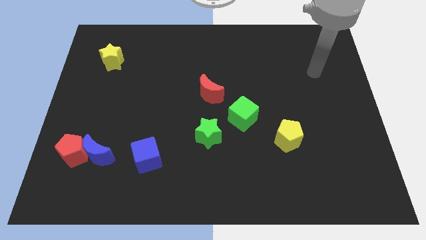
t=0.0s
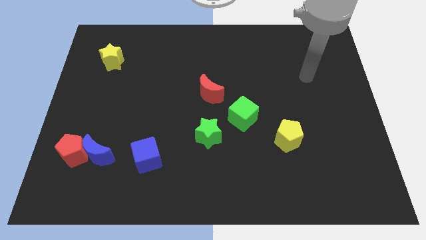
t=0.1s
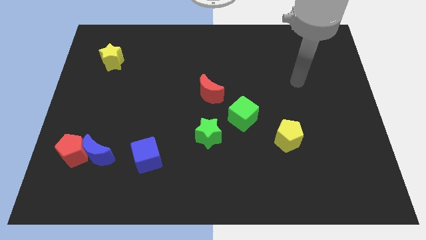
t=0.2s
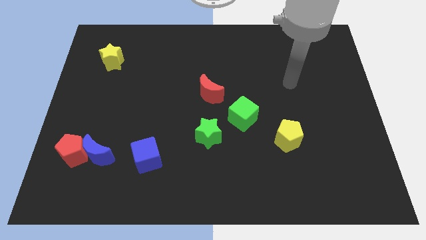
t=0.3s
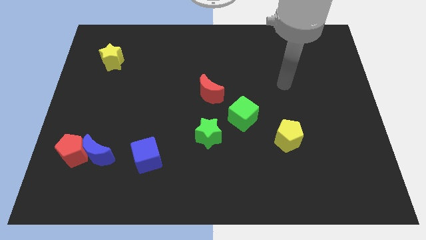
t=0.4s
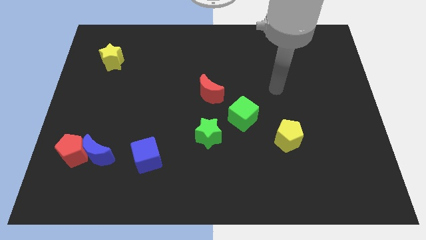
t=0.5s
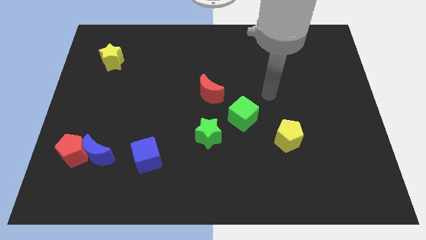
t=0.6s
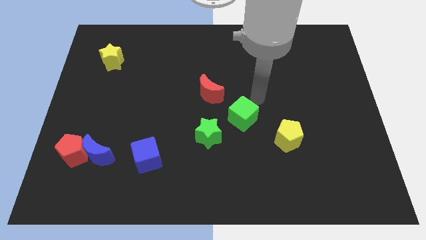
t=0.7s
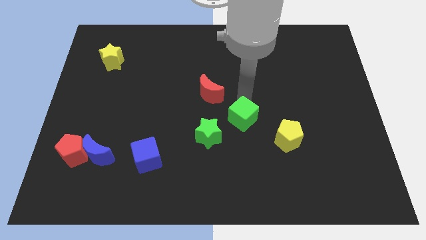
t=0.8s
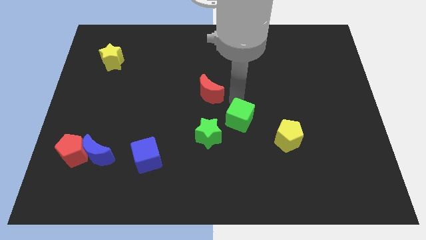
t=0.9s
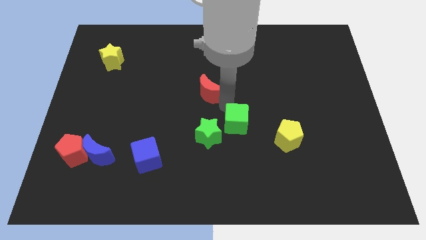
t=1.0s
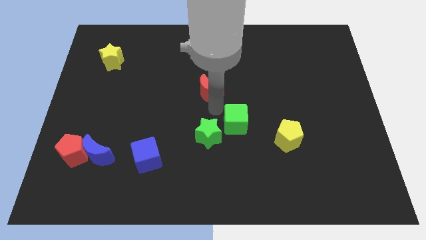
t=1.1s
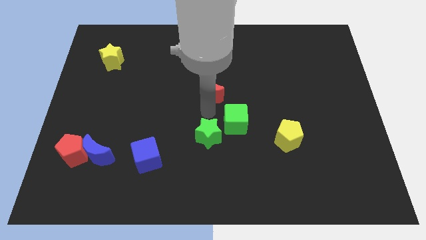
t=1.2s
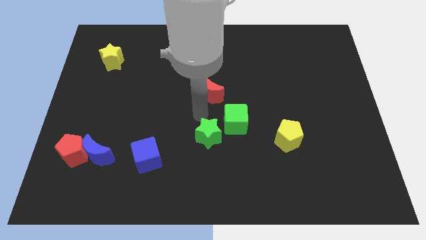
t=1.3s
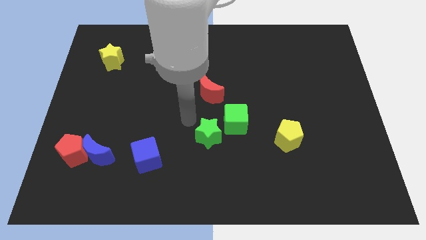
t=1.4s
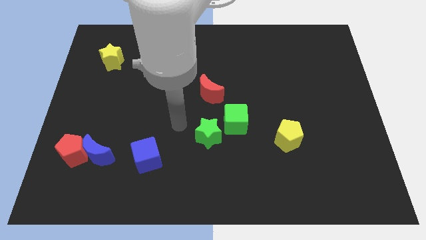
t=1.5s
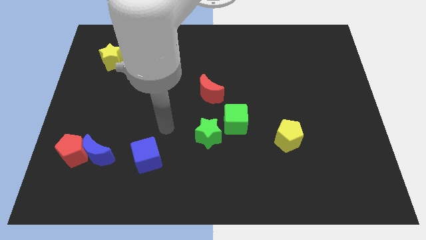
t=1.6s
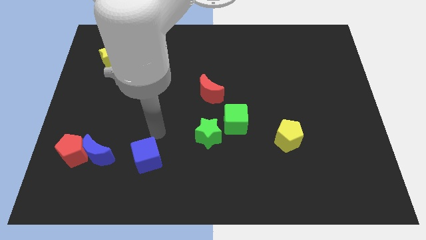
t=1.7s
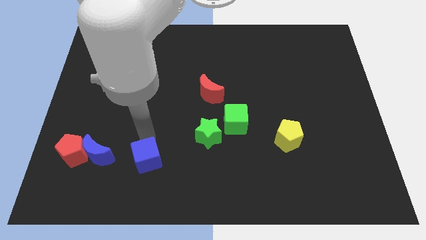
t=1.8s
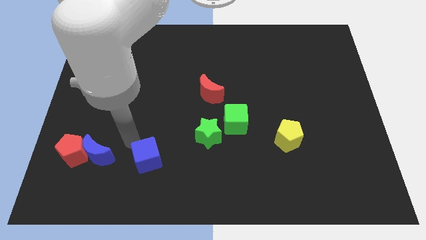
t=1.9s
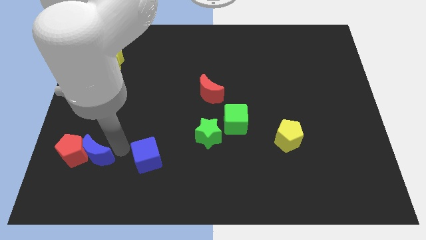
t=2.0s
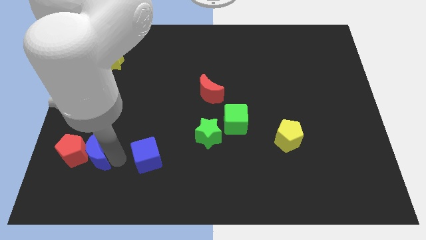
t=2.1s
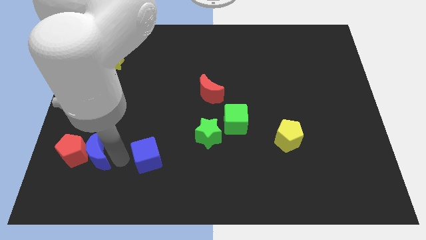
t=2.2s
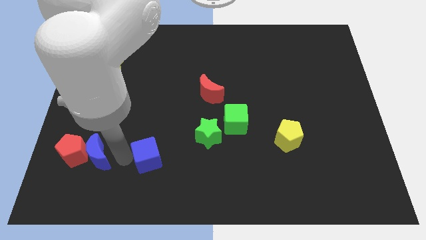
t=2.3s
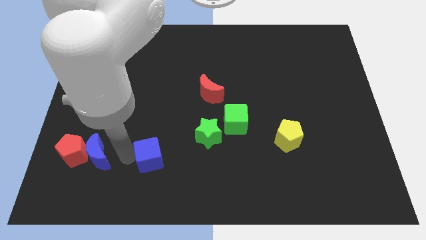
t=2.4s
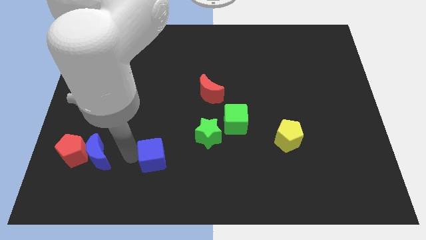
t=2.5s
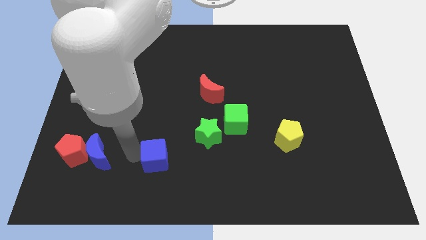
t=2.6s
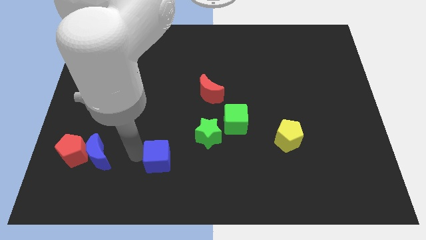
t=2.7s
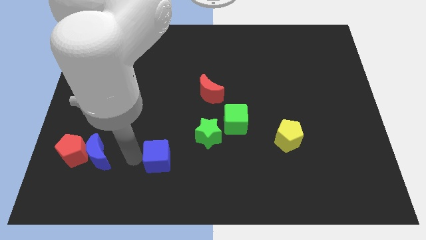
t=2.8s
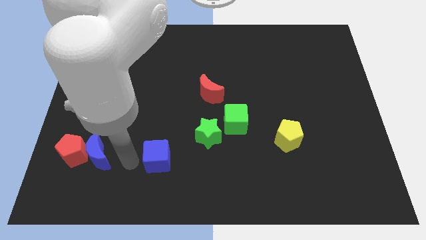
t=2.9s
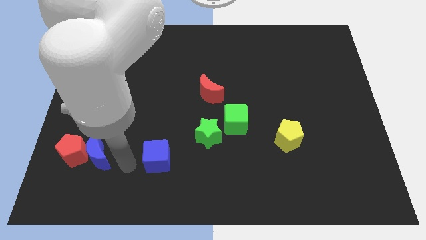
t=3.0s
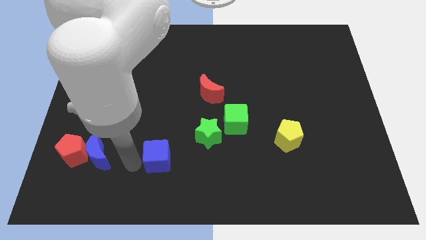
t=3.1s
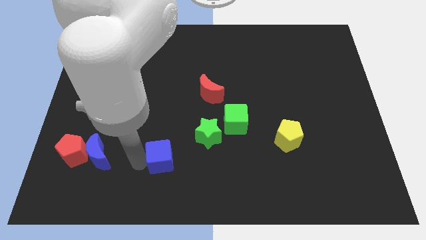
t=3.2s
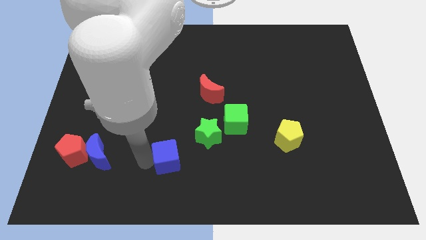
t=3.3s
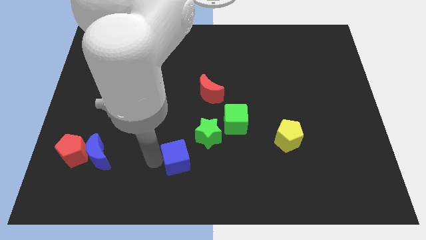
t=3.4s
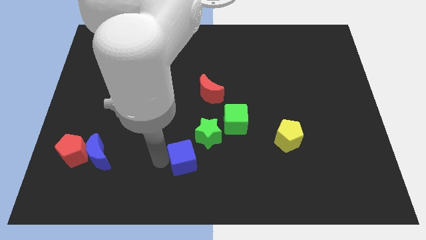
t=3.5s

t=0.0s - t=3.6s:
push the blue cube a little right

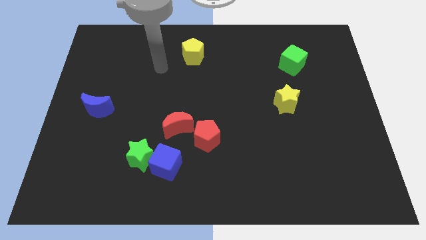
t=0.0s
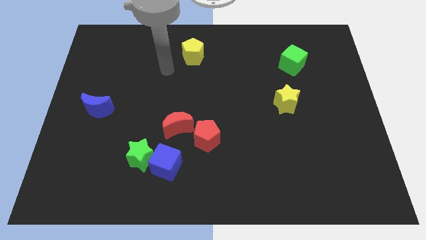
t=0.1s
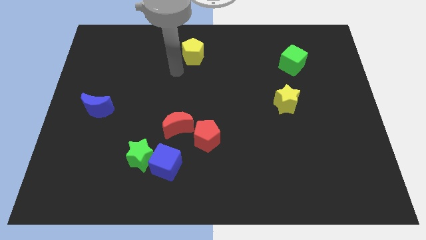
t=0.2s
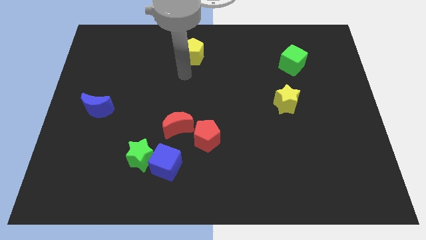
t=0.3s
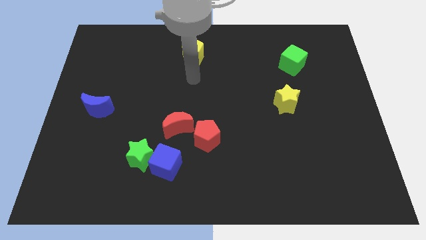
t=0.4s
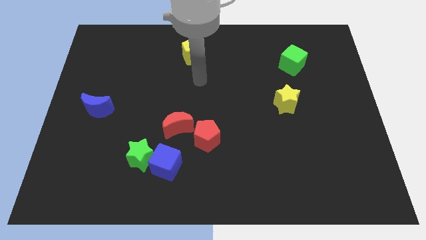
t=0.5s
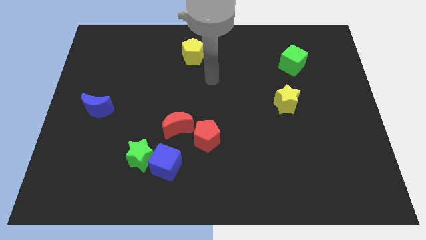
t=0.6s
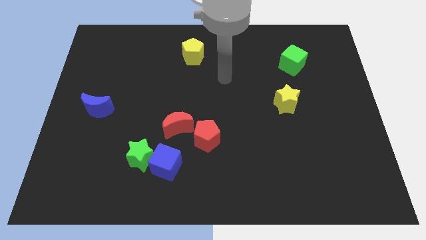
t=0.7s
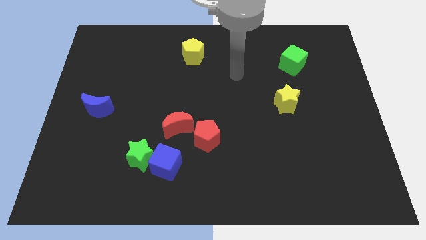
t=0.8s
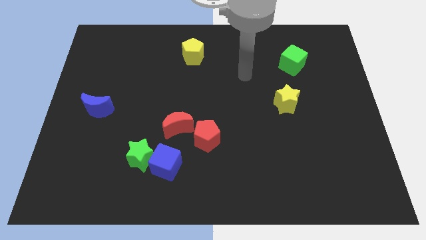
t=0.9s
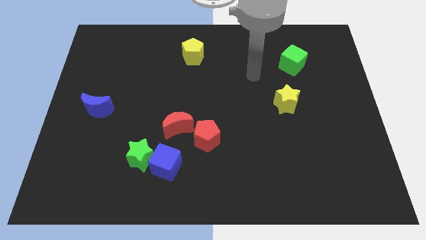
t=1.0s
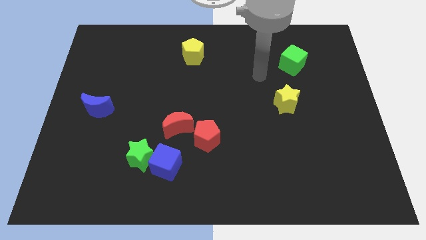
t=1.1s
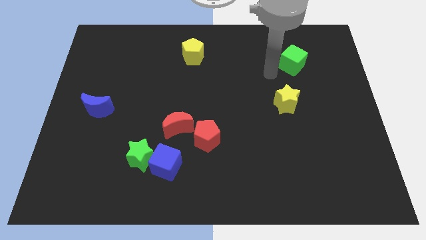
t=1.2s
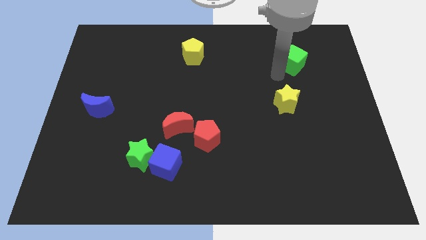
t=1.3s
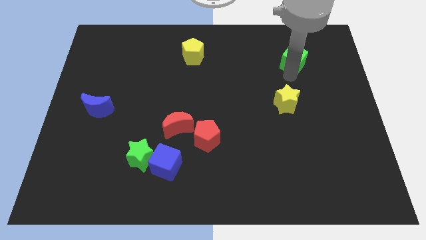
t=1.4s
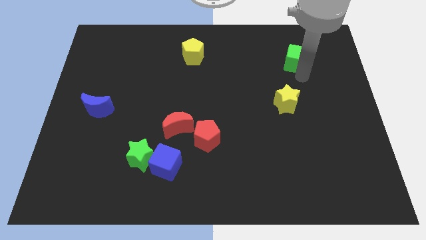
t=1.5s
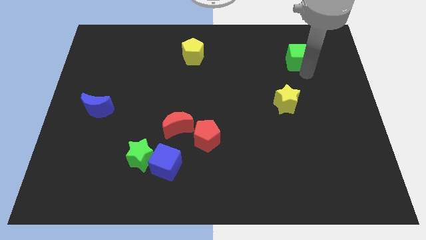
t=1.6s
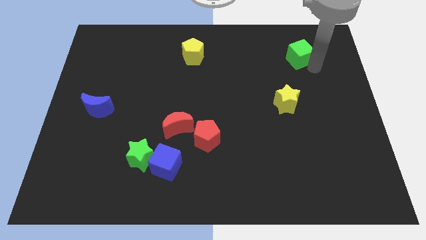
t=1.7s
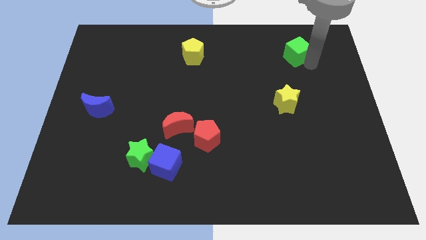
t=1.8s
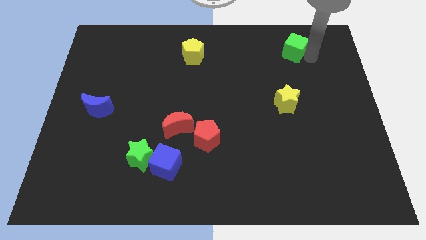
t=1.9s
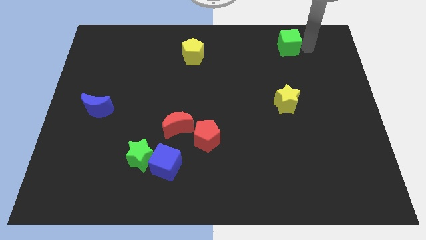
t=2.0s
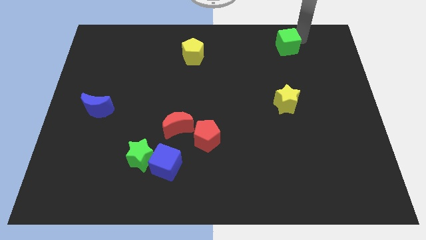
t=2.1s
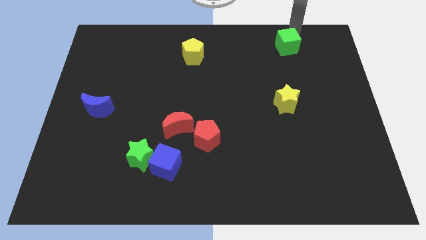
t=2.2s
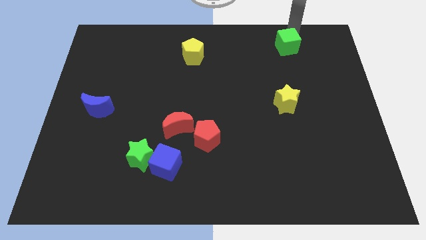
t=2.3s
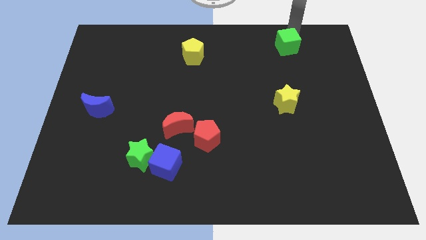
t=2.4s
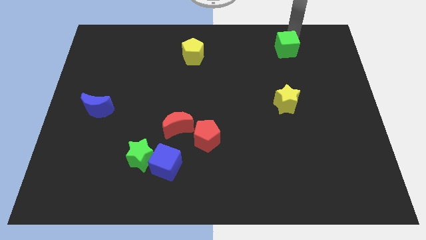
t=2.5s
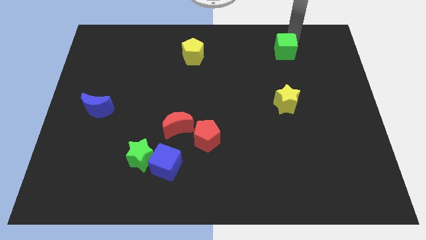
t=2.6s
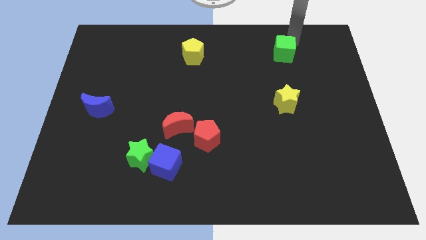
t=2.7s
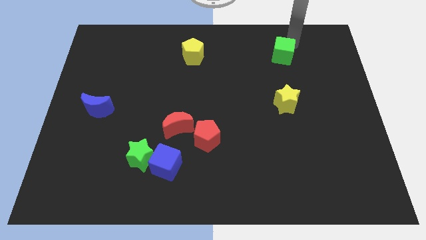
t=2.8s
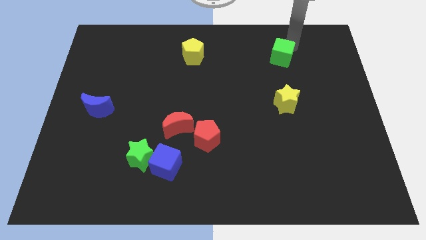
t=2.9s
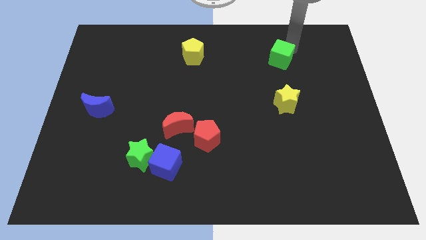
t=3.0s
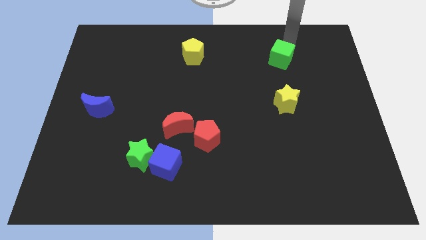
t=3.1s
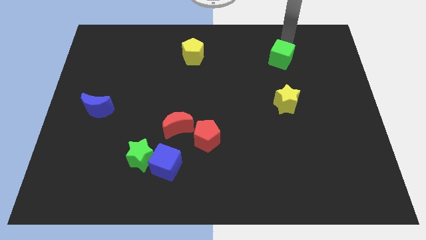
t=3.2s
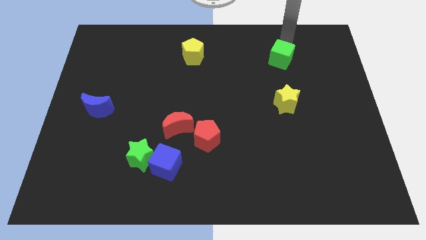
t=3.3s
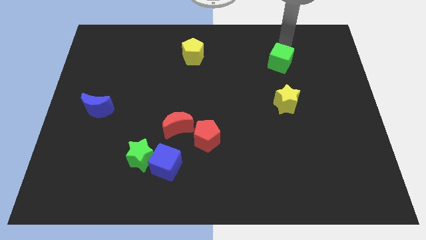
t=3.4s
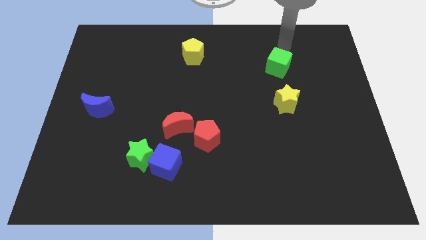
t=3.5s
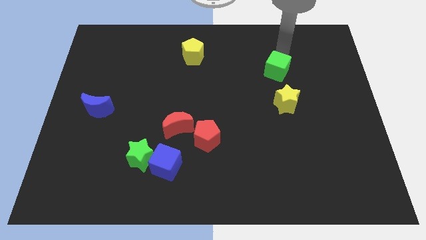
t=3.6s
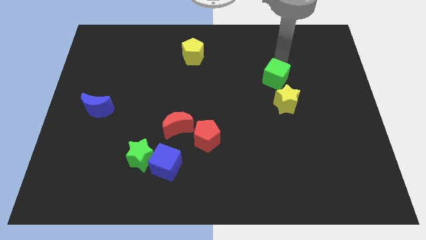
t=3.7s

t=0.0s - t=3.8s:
move the green cube slightly down and then left

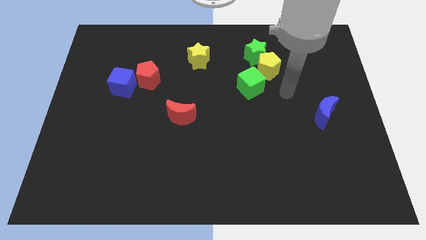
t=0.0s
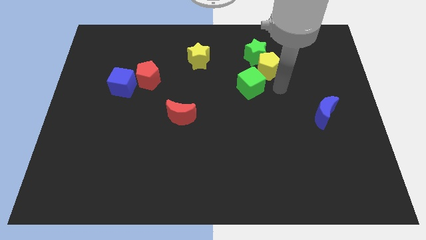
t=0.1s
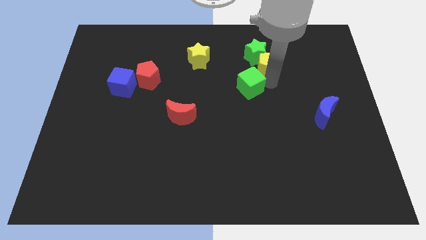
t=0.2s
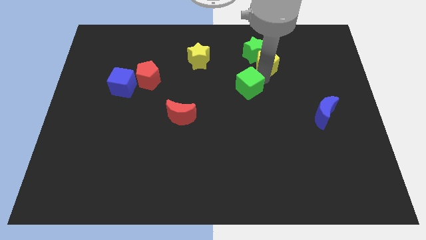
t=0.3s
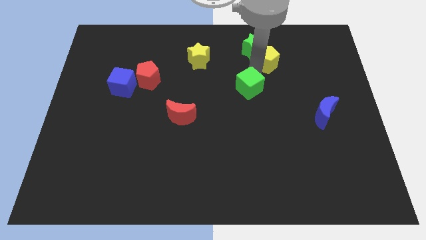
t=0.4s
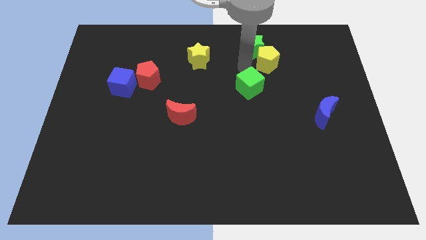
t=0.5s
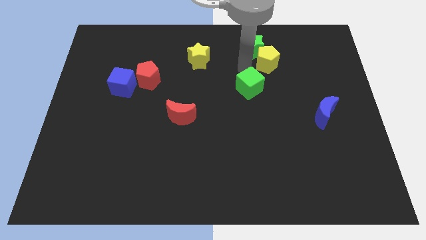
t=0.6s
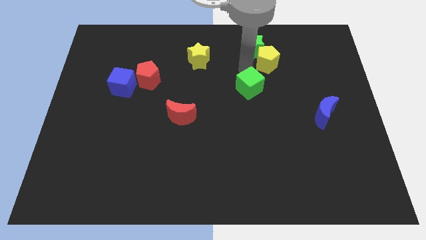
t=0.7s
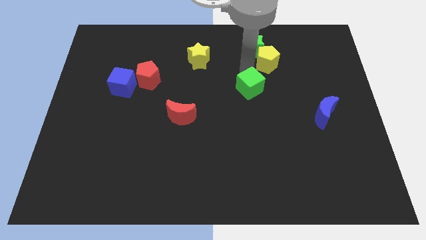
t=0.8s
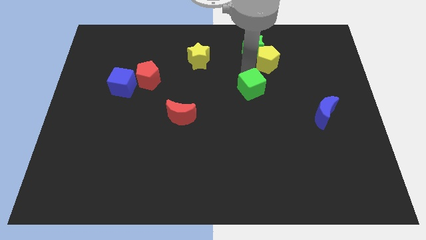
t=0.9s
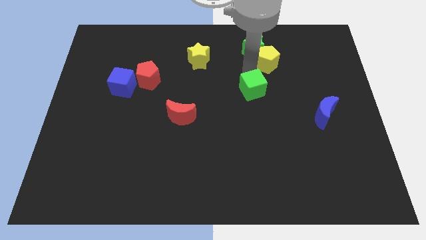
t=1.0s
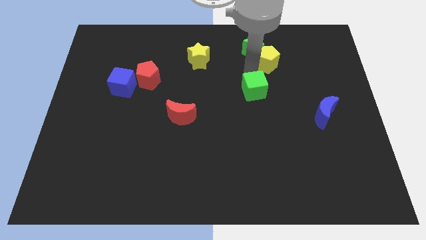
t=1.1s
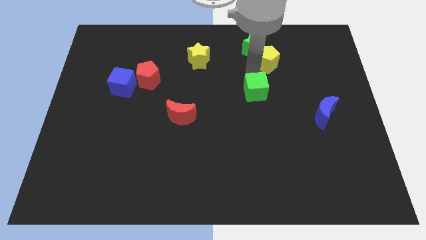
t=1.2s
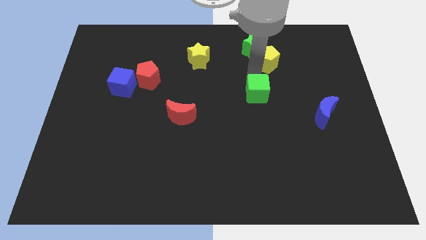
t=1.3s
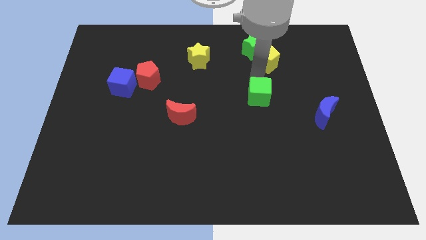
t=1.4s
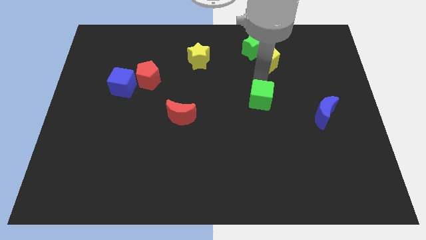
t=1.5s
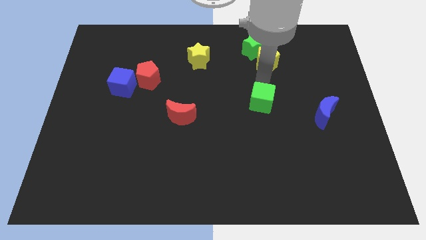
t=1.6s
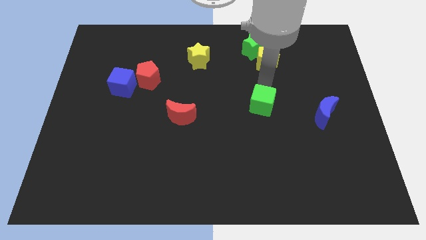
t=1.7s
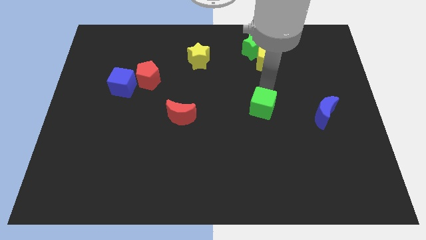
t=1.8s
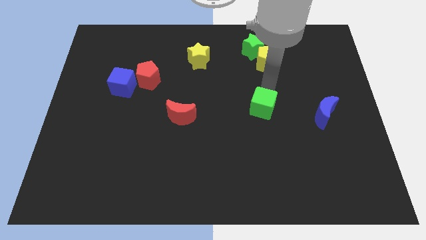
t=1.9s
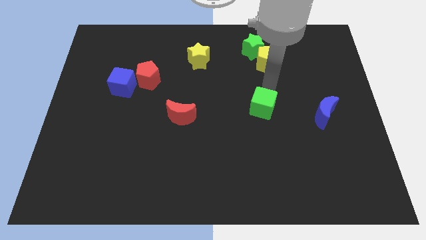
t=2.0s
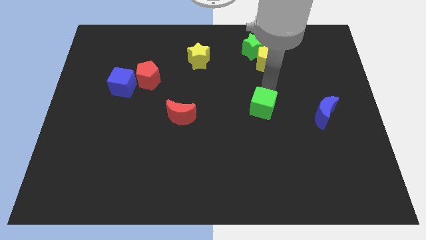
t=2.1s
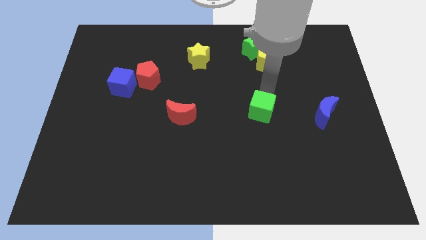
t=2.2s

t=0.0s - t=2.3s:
slide the green cube a little bit down
